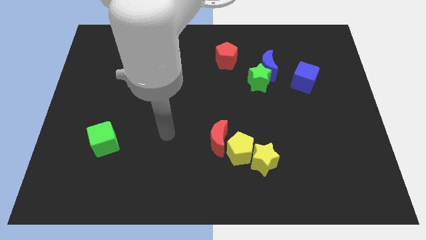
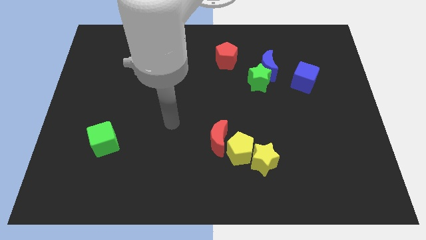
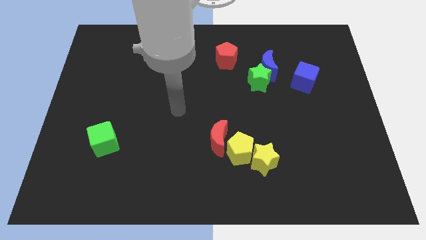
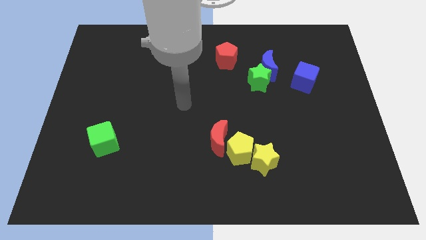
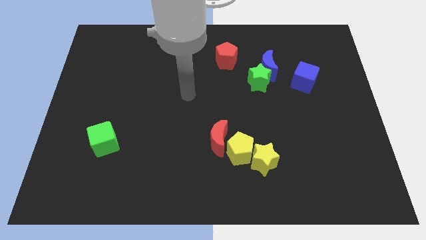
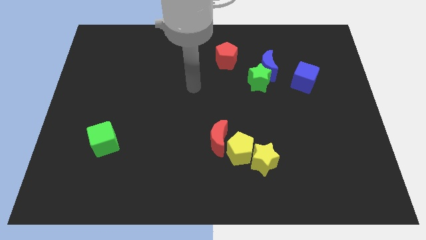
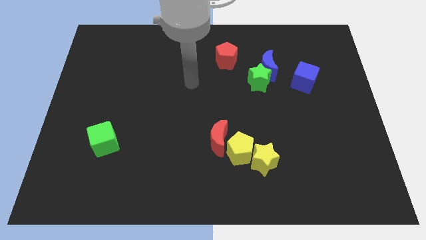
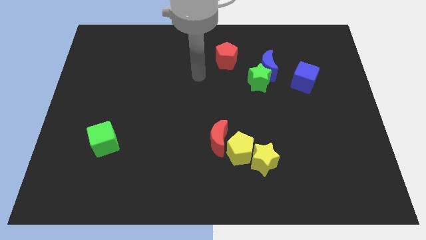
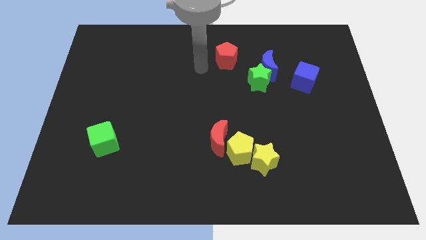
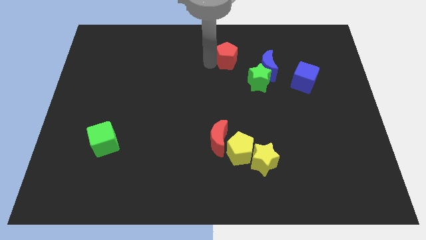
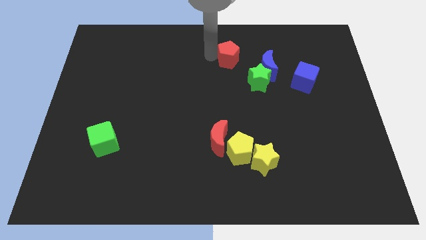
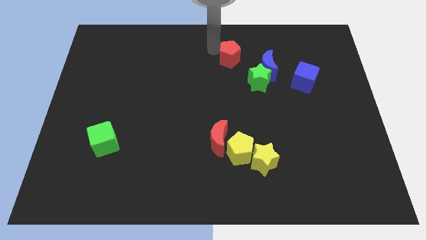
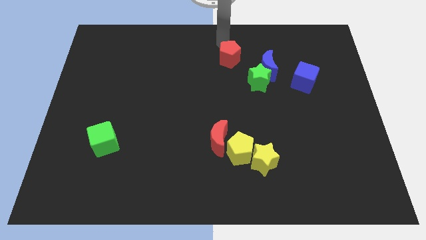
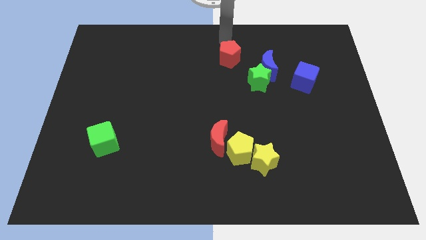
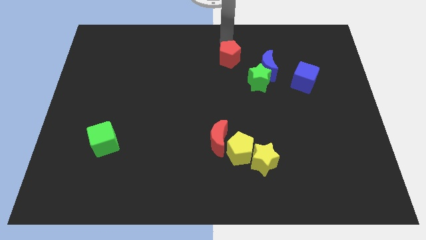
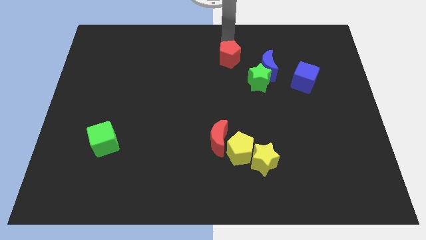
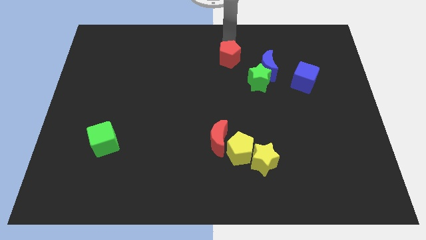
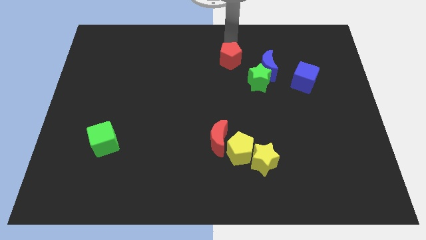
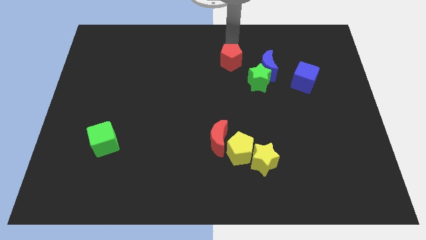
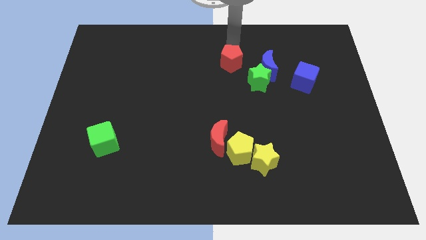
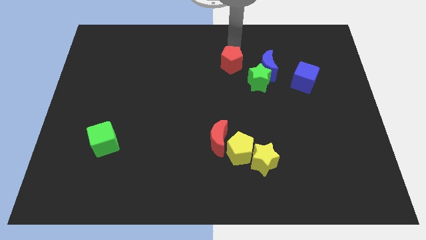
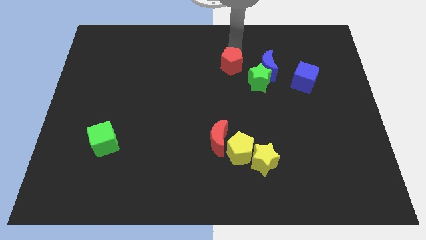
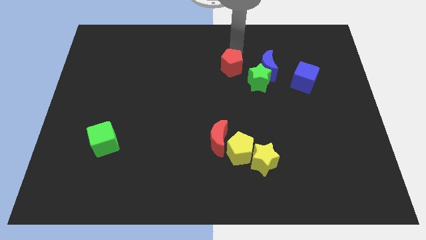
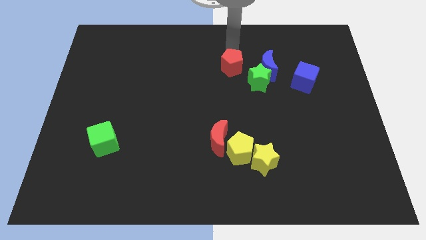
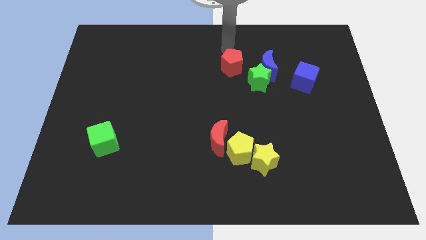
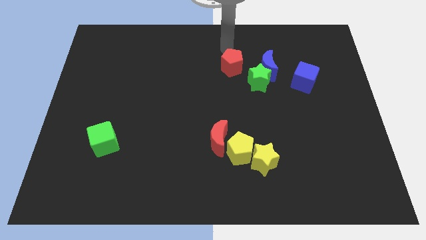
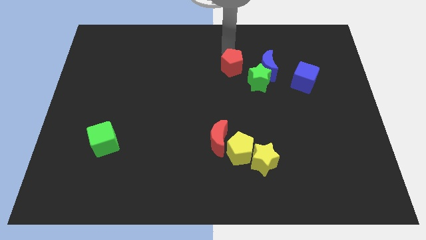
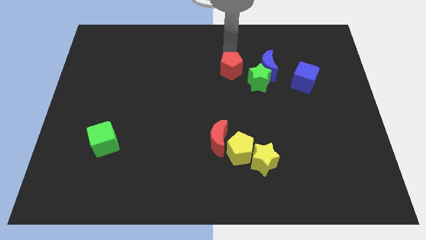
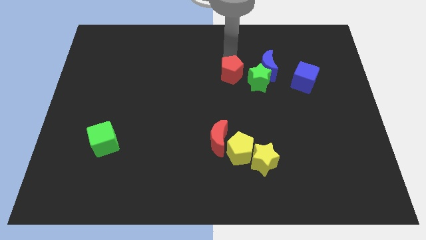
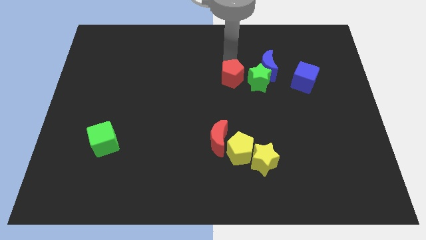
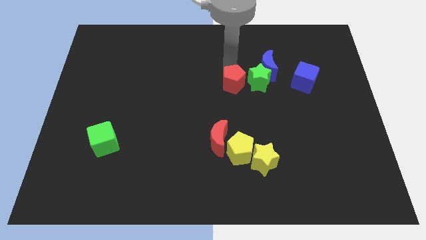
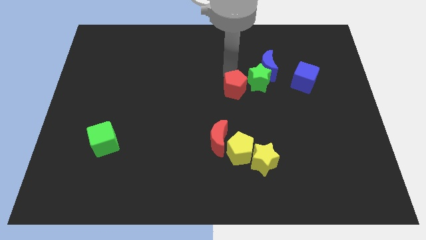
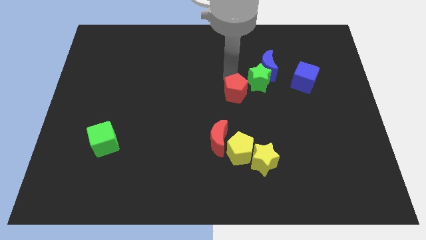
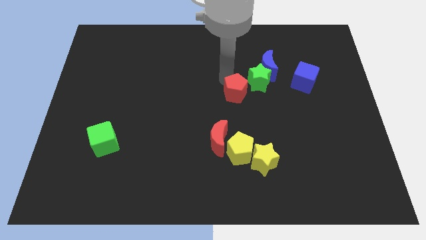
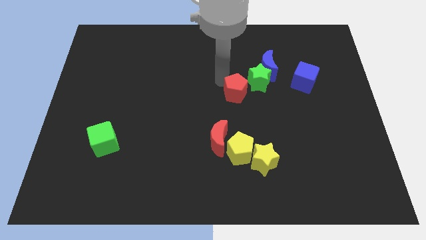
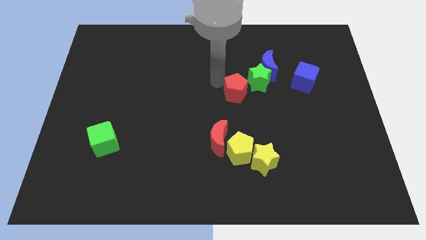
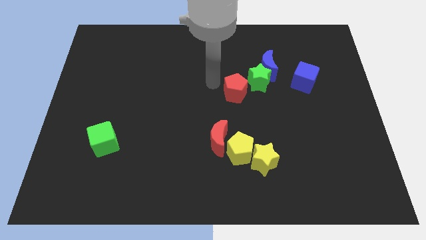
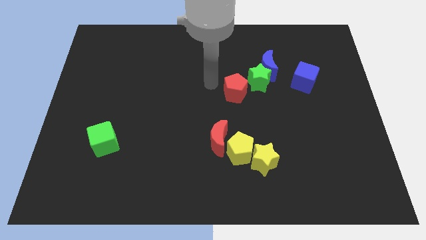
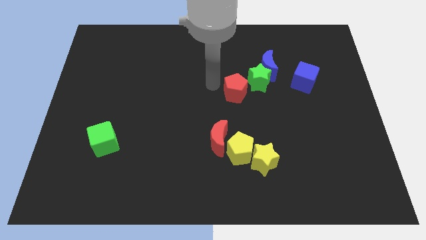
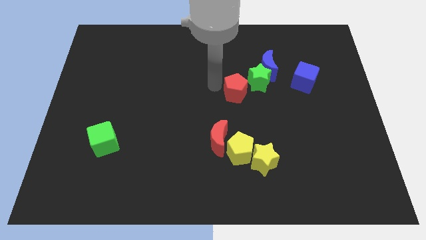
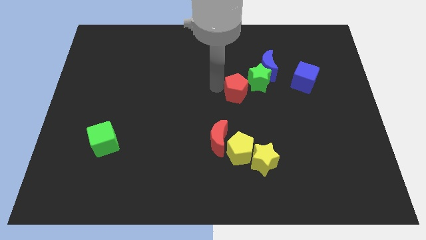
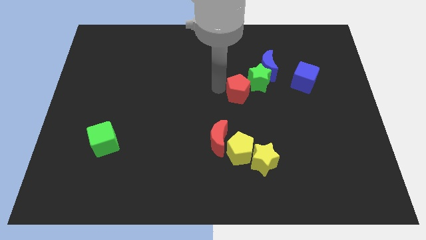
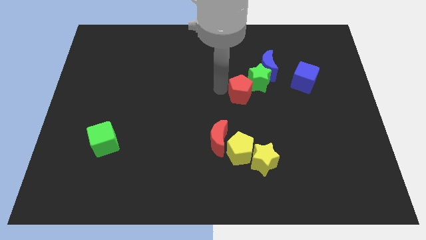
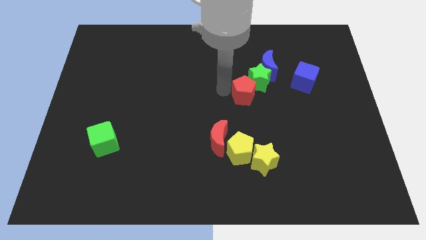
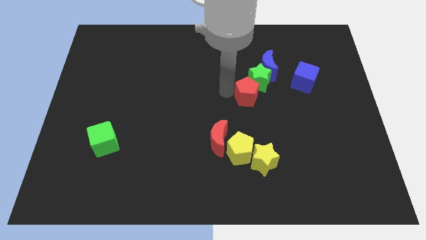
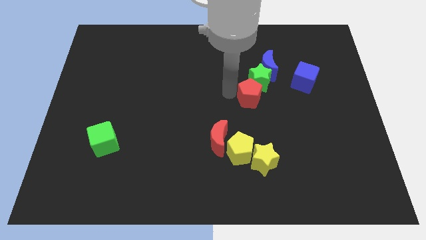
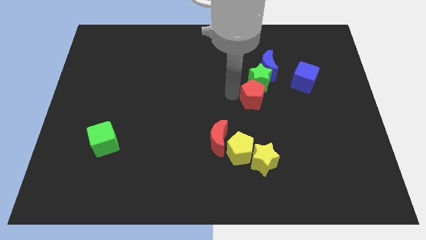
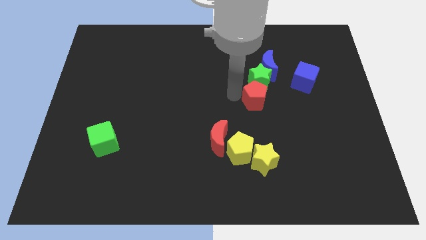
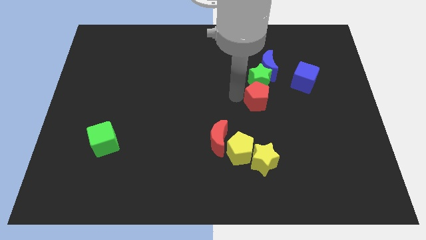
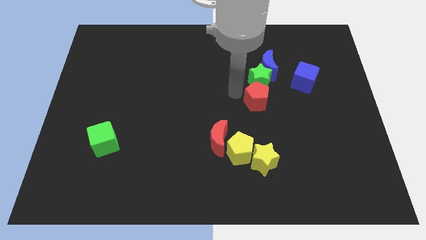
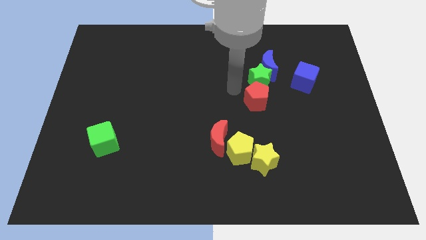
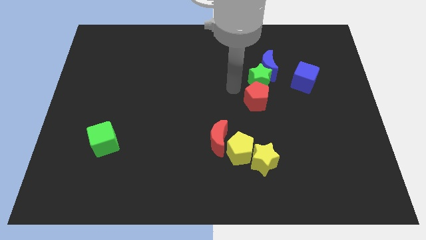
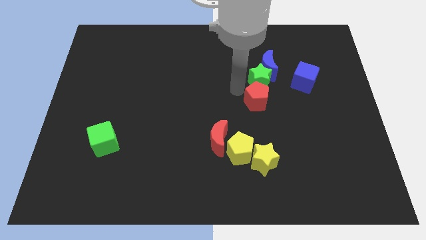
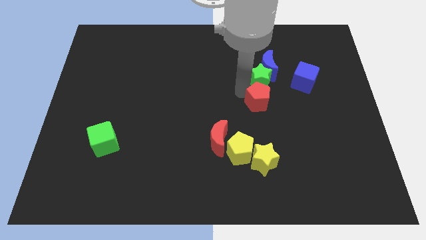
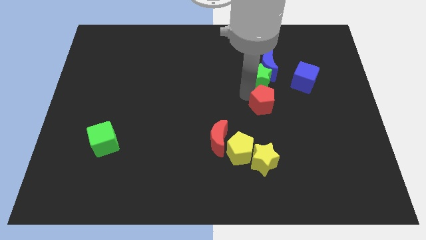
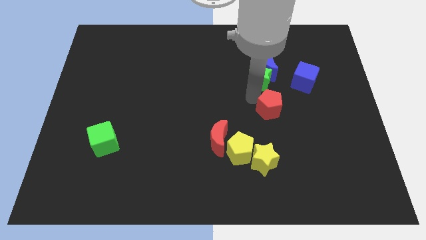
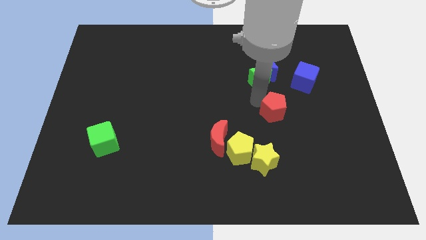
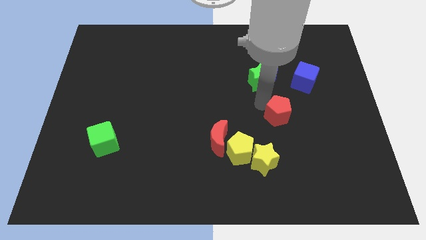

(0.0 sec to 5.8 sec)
slide the red pentagon down and then right

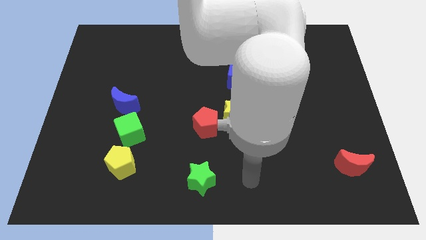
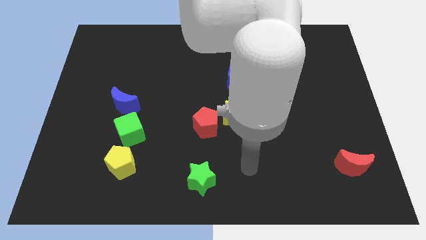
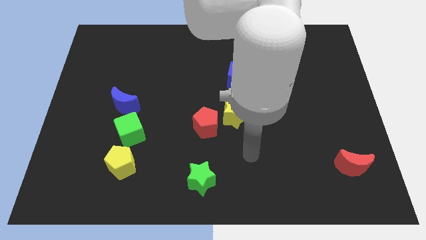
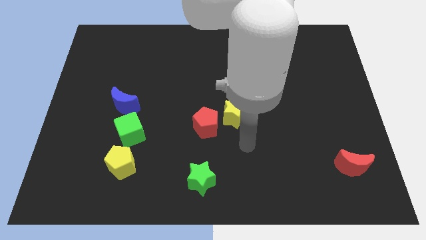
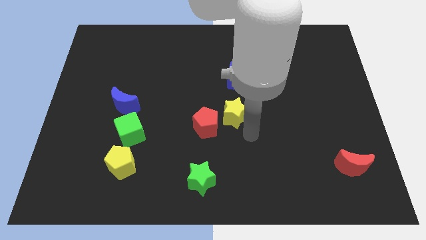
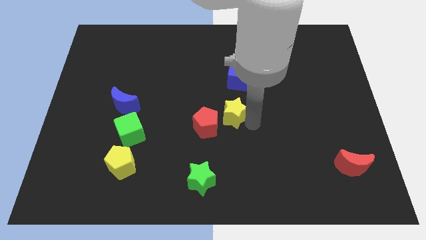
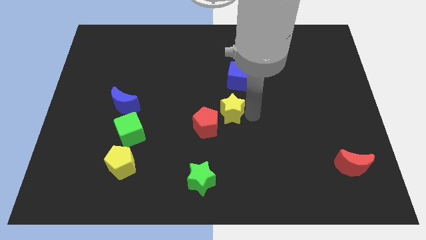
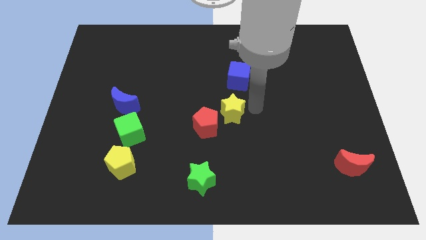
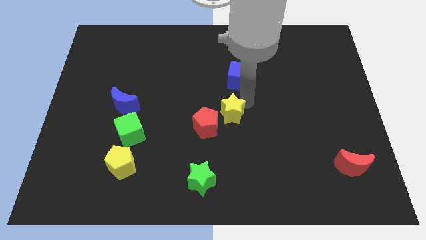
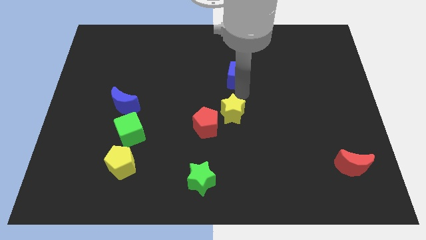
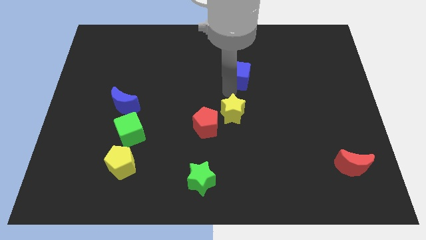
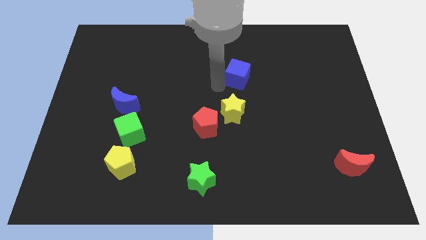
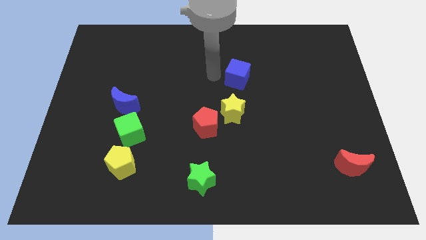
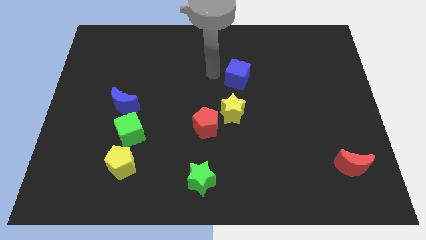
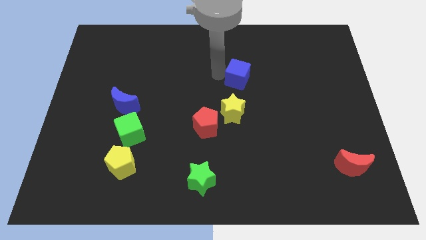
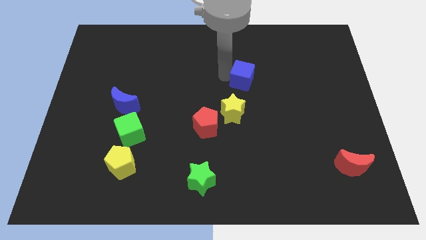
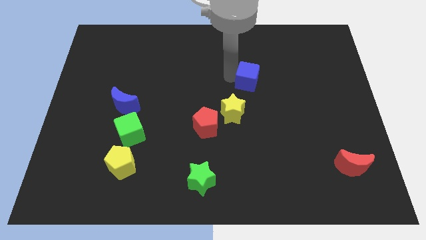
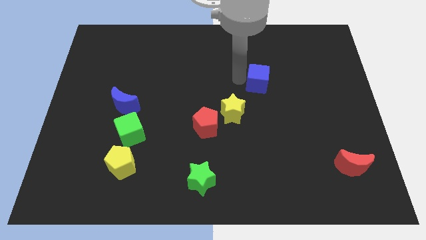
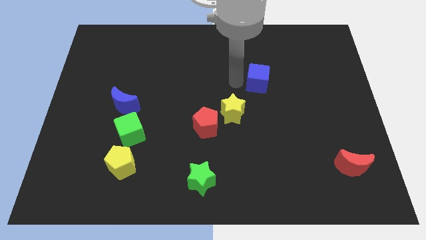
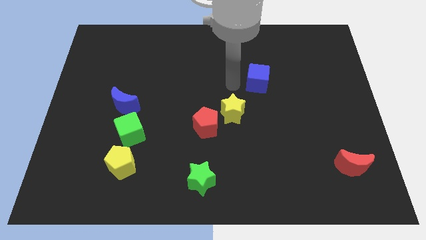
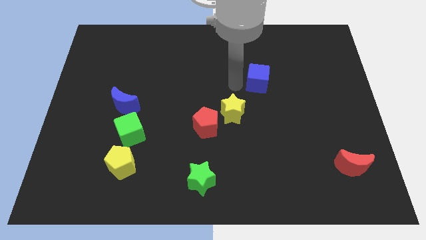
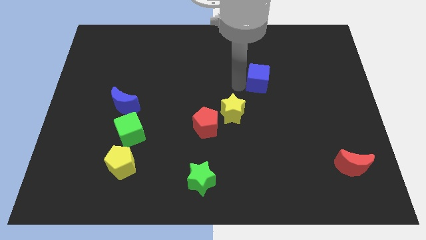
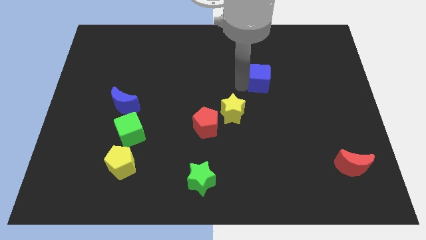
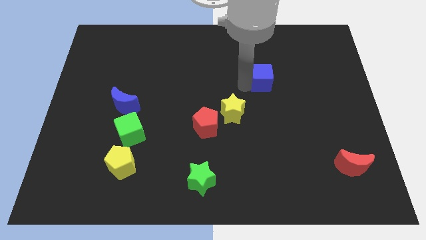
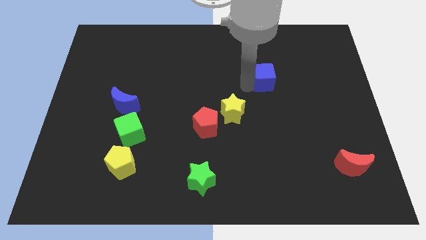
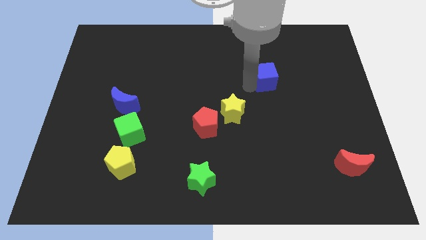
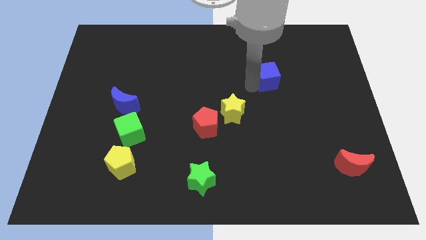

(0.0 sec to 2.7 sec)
push the blue cube to the right a little

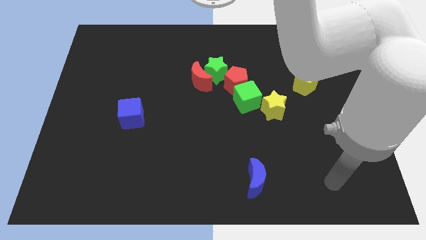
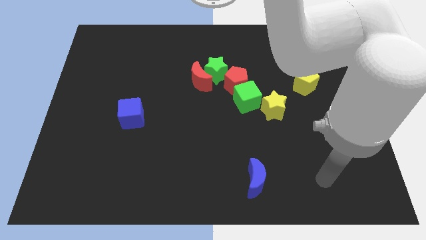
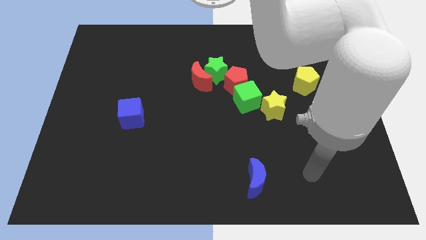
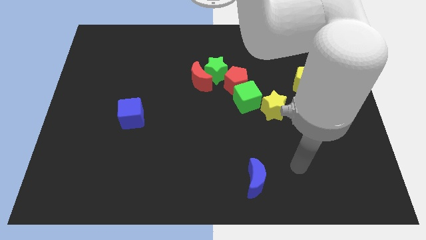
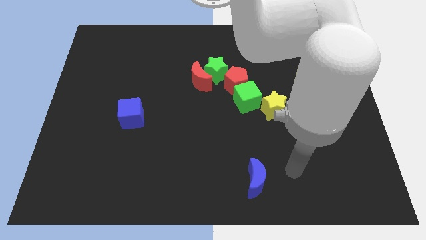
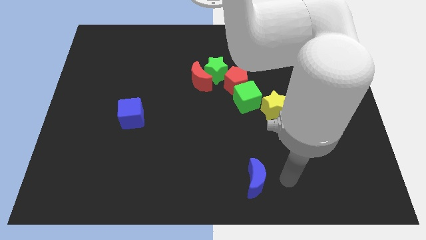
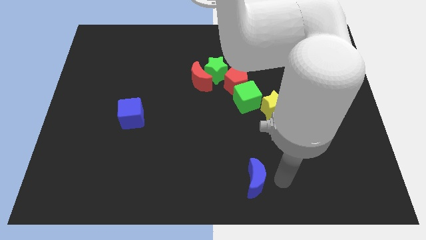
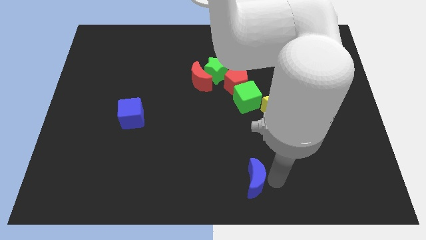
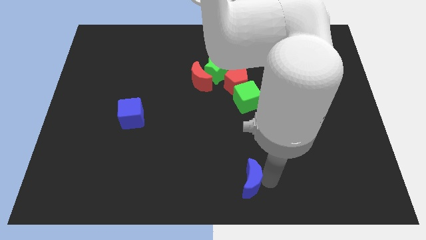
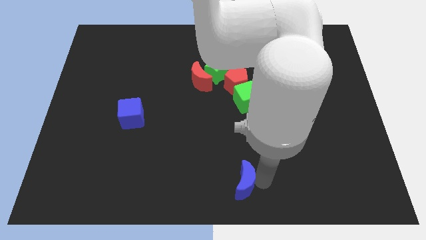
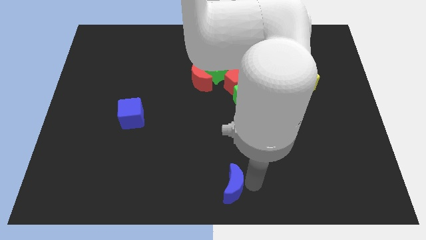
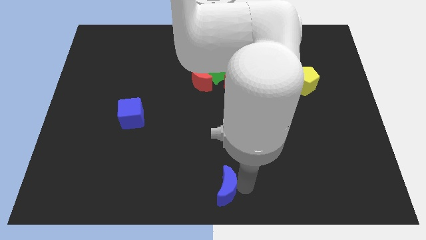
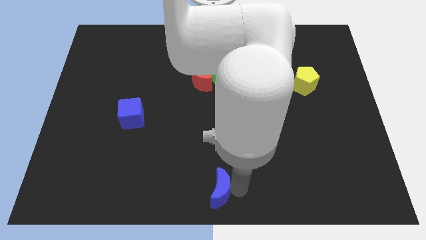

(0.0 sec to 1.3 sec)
move the blue moon a bit to the left
